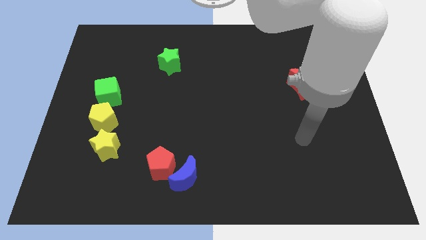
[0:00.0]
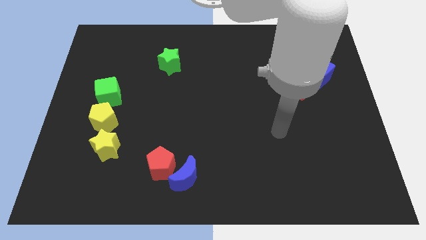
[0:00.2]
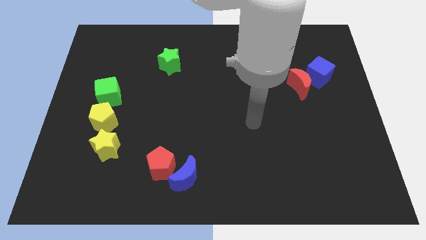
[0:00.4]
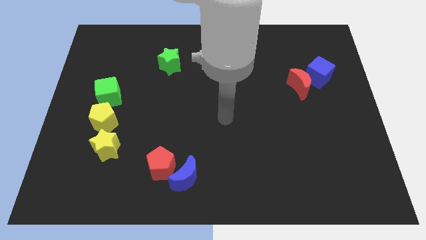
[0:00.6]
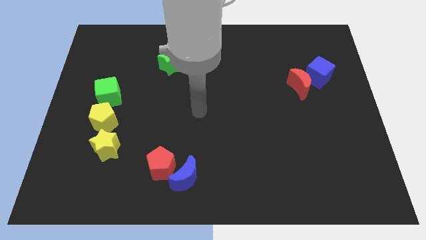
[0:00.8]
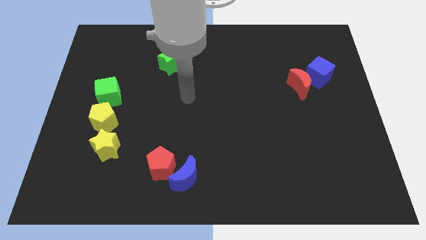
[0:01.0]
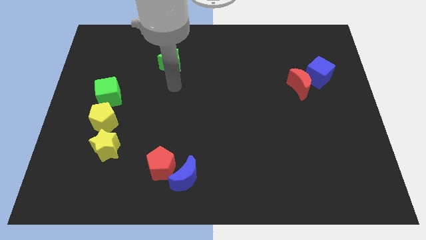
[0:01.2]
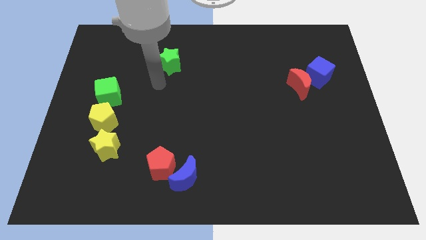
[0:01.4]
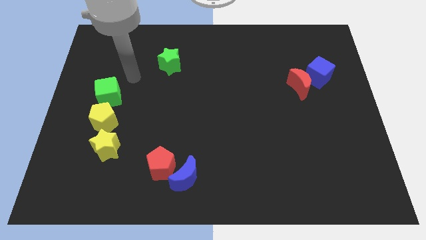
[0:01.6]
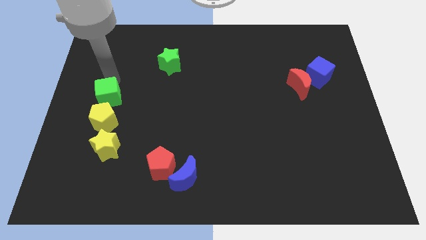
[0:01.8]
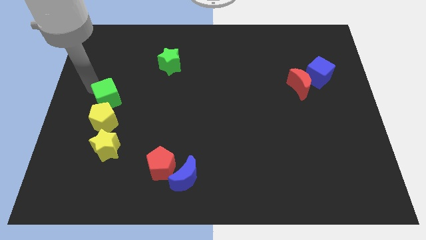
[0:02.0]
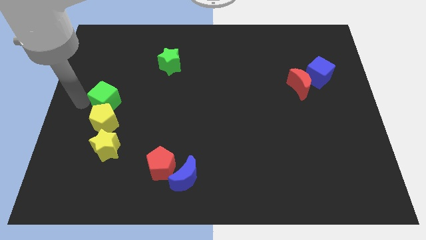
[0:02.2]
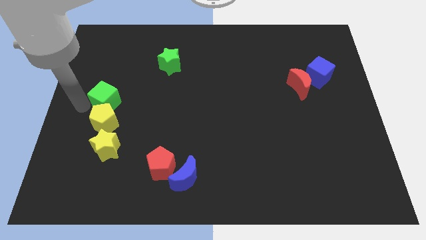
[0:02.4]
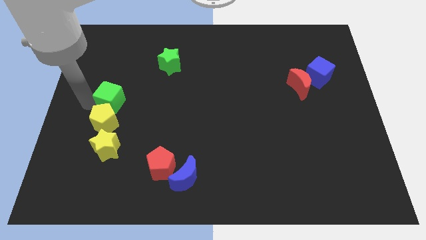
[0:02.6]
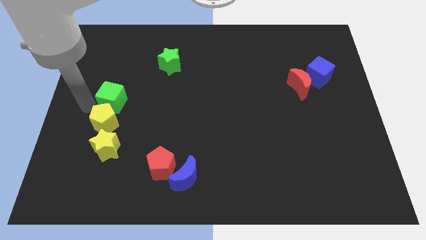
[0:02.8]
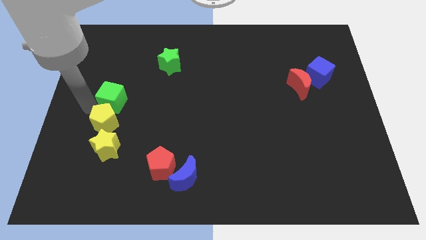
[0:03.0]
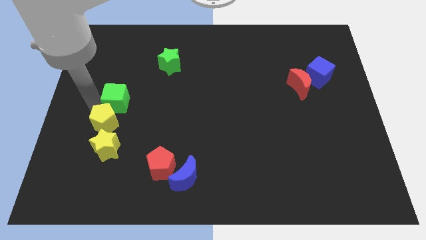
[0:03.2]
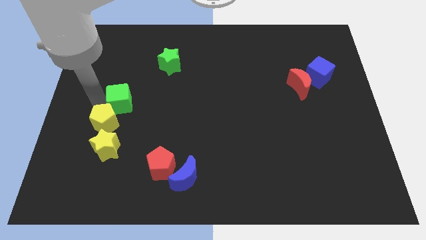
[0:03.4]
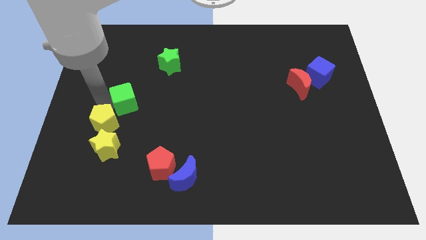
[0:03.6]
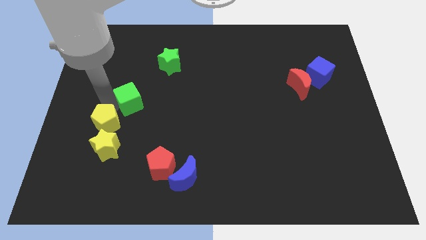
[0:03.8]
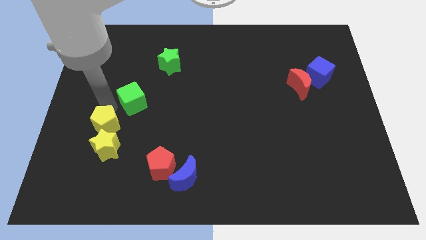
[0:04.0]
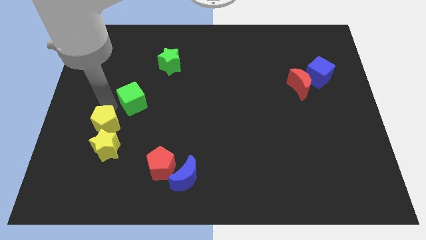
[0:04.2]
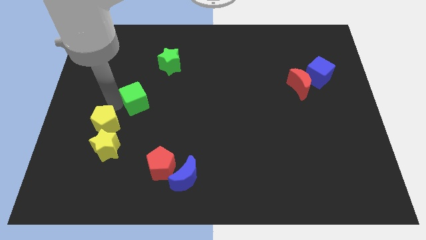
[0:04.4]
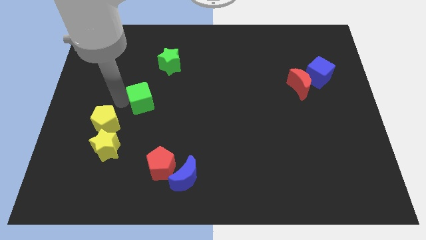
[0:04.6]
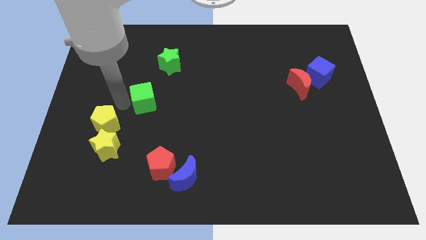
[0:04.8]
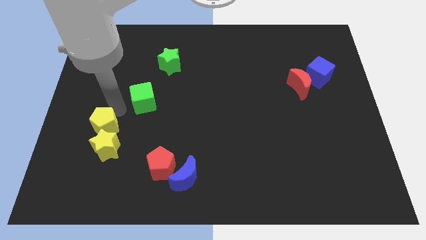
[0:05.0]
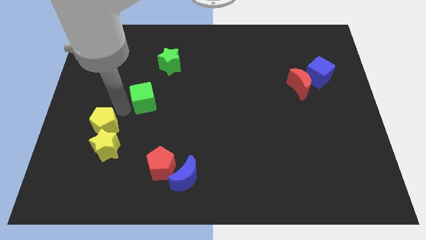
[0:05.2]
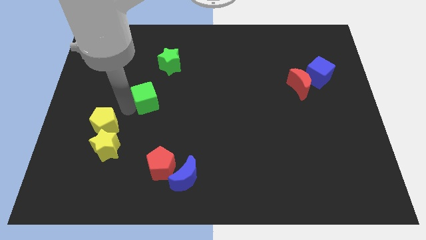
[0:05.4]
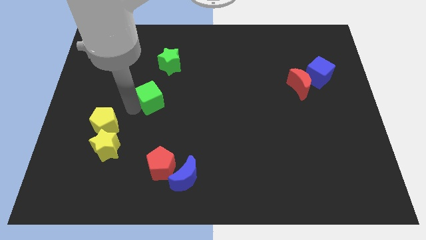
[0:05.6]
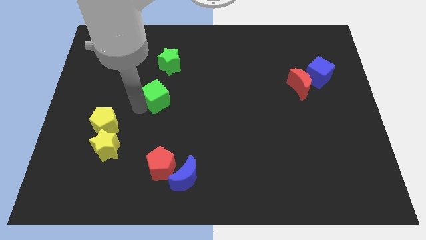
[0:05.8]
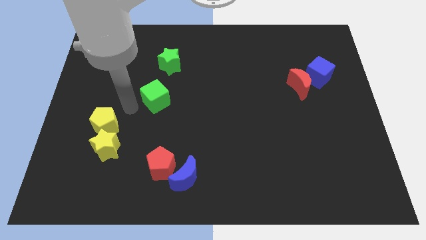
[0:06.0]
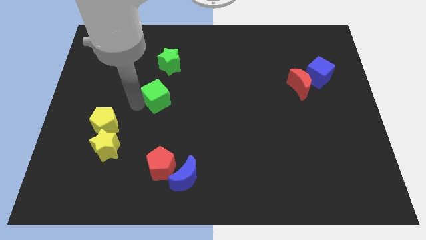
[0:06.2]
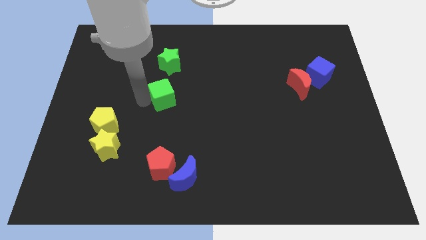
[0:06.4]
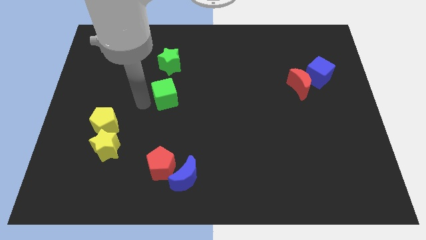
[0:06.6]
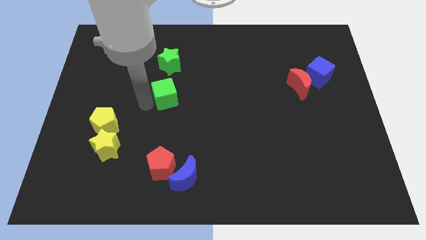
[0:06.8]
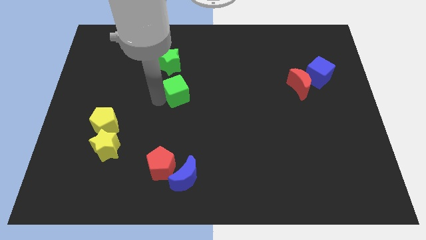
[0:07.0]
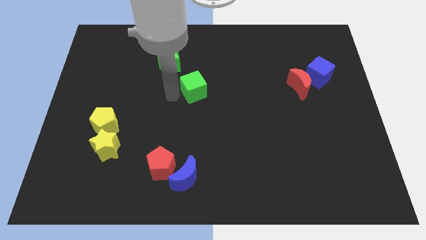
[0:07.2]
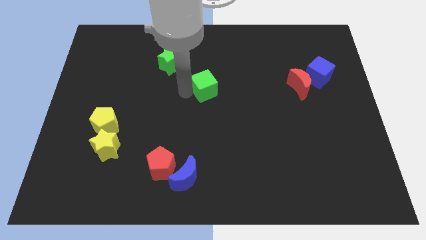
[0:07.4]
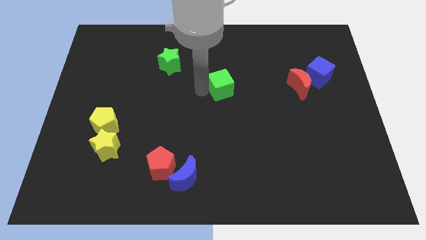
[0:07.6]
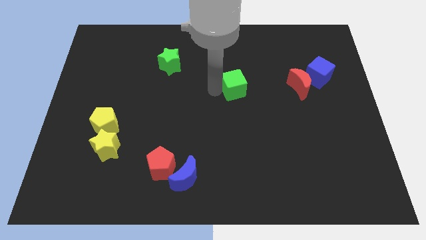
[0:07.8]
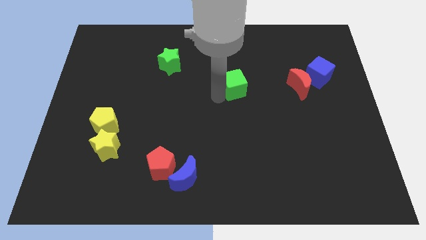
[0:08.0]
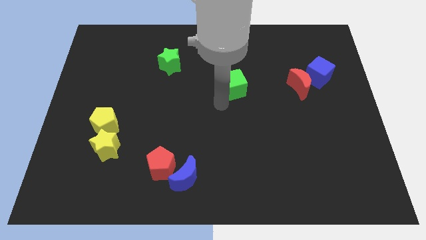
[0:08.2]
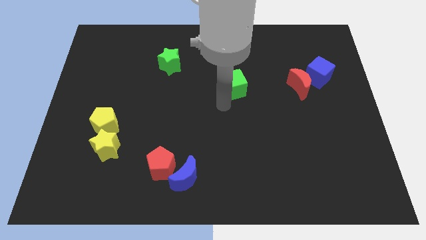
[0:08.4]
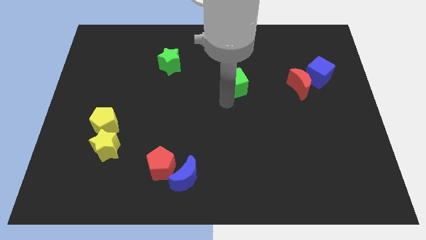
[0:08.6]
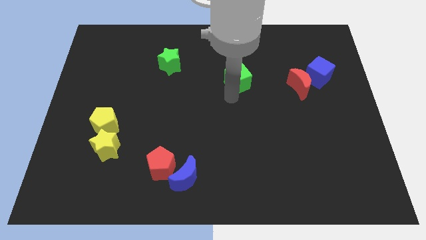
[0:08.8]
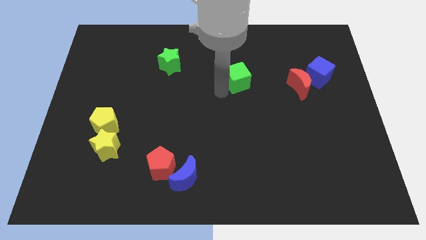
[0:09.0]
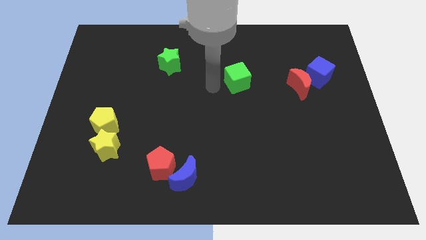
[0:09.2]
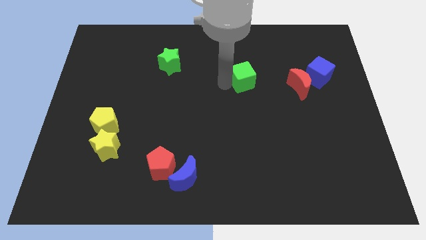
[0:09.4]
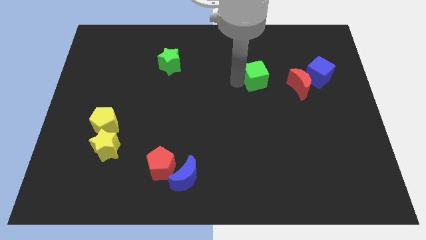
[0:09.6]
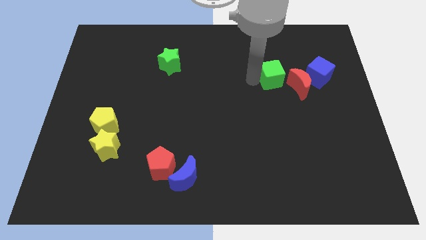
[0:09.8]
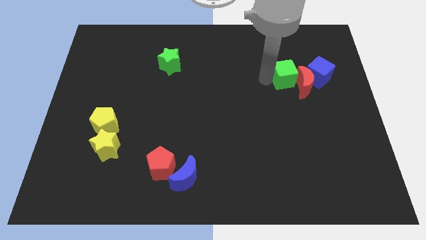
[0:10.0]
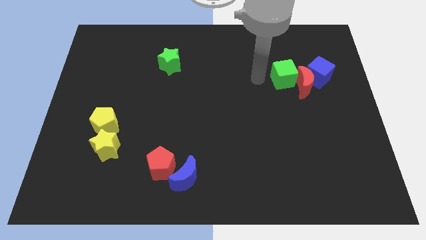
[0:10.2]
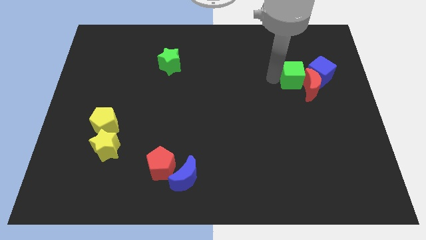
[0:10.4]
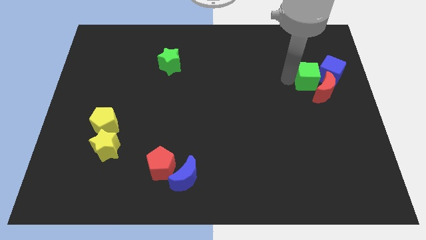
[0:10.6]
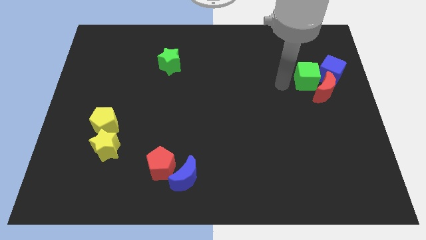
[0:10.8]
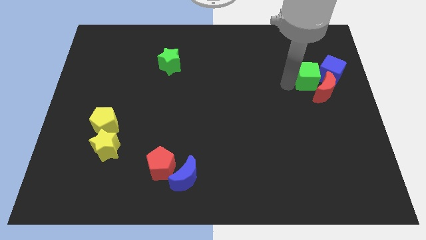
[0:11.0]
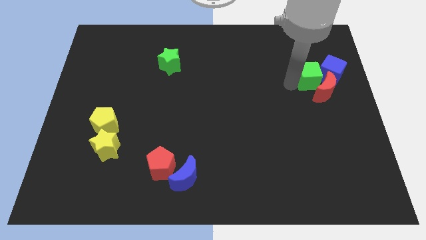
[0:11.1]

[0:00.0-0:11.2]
put the green cube towards the blue cube

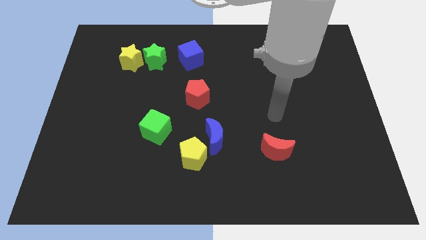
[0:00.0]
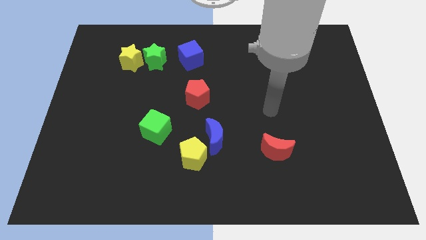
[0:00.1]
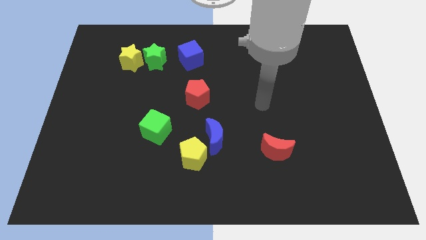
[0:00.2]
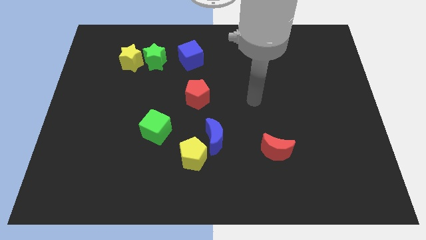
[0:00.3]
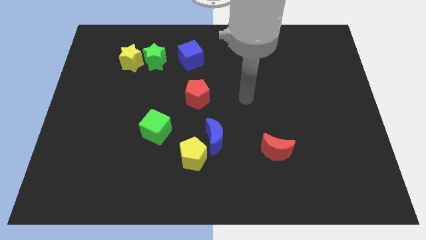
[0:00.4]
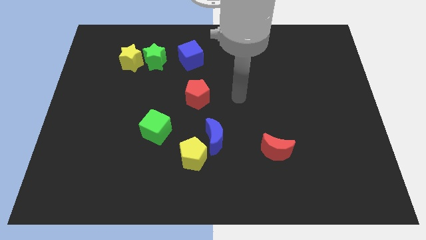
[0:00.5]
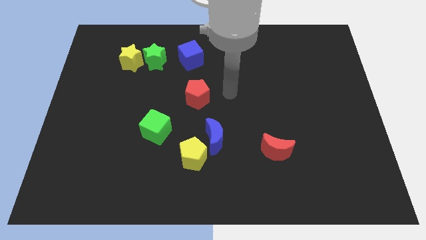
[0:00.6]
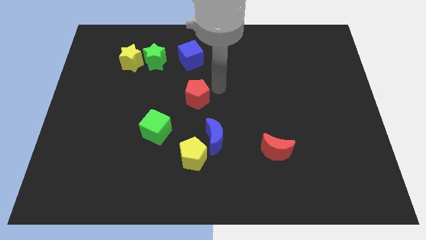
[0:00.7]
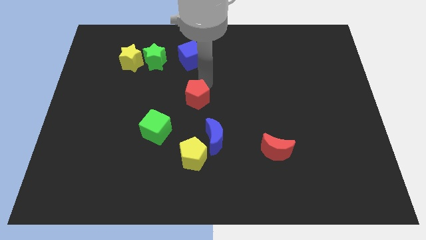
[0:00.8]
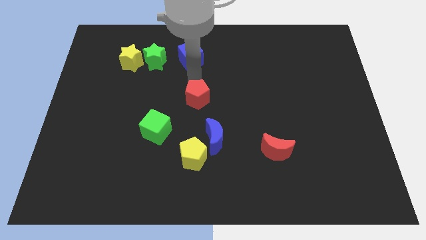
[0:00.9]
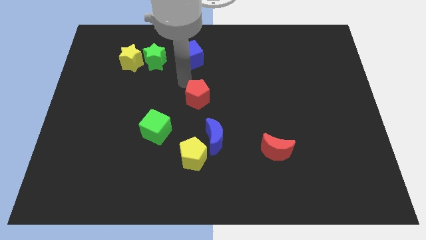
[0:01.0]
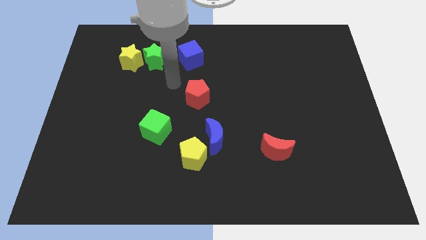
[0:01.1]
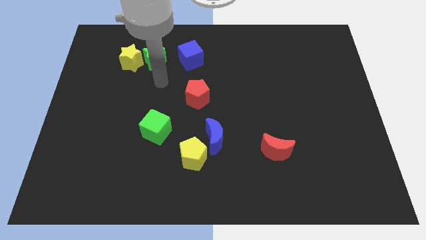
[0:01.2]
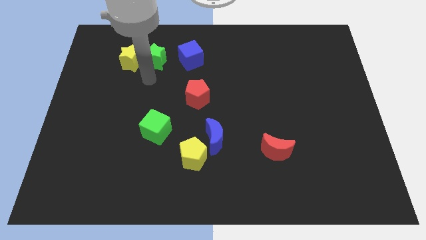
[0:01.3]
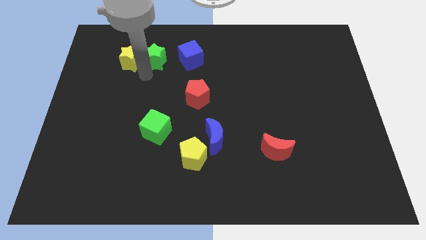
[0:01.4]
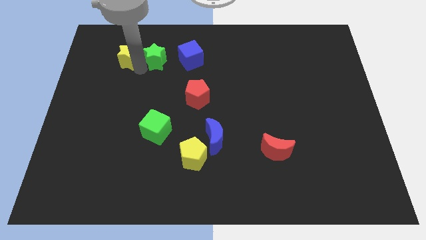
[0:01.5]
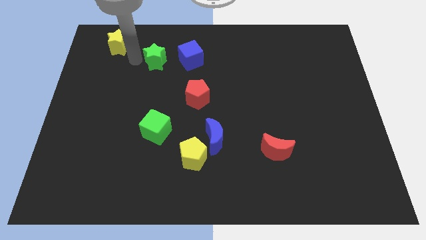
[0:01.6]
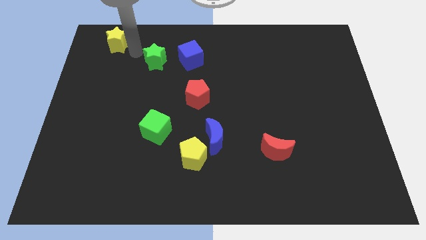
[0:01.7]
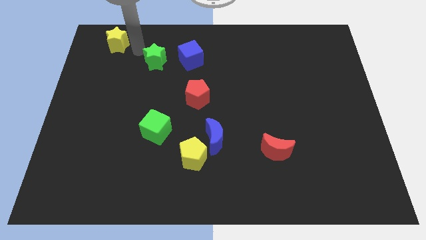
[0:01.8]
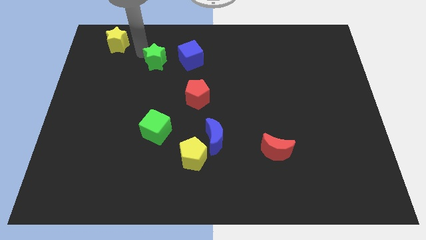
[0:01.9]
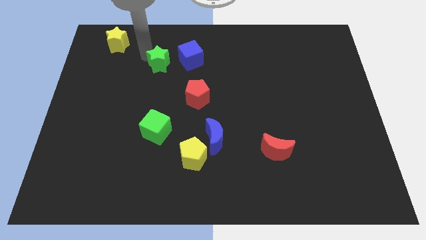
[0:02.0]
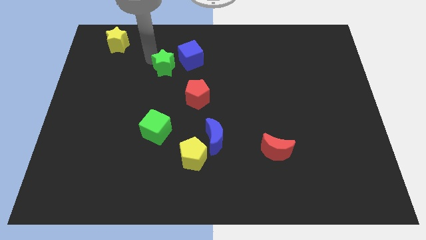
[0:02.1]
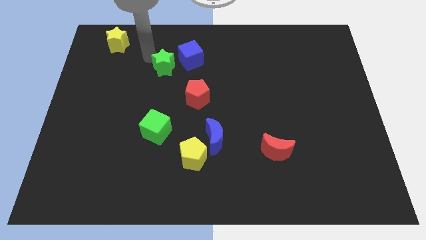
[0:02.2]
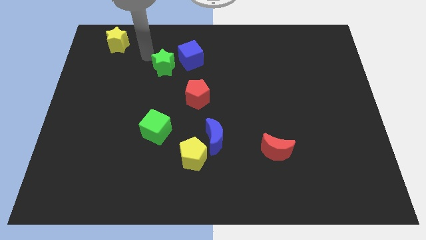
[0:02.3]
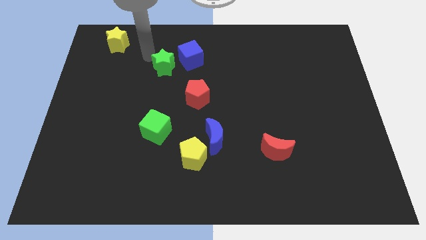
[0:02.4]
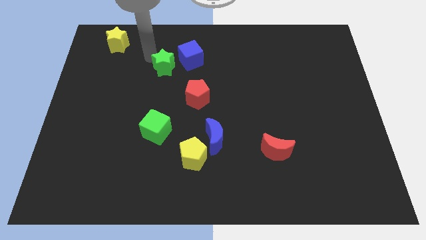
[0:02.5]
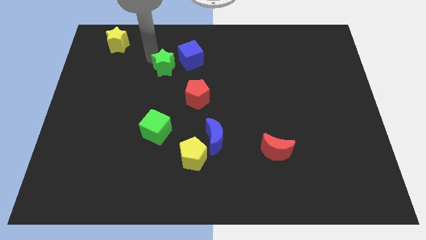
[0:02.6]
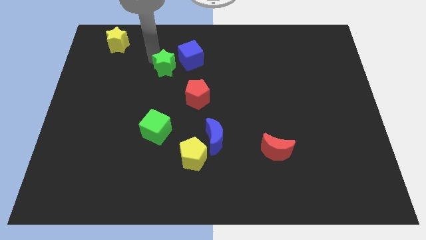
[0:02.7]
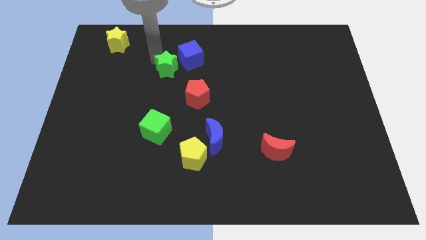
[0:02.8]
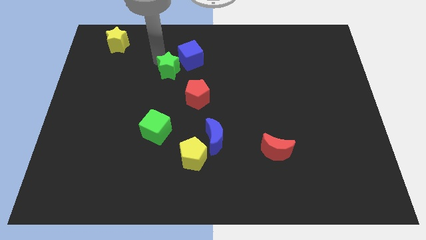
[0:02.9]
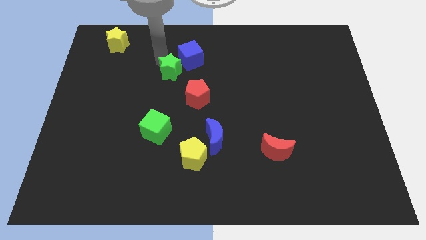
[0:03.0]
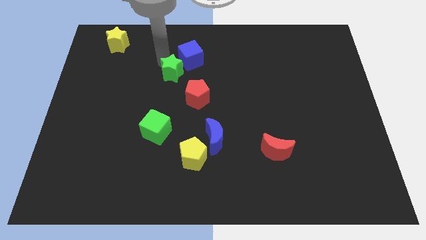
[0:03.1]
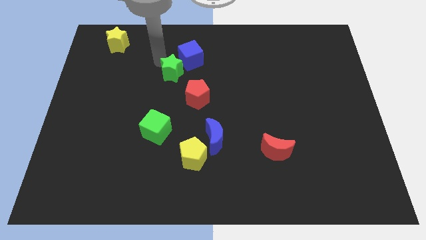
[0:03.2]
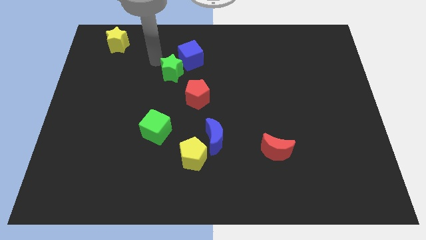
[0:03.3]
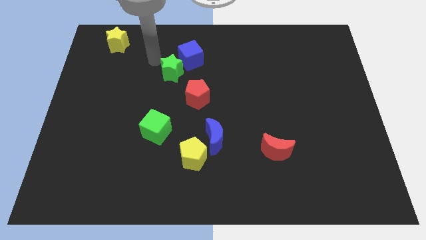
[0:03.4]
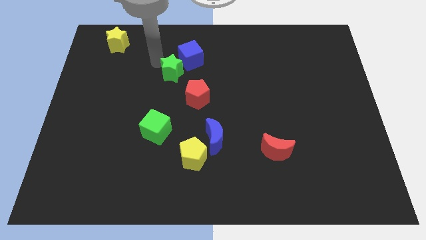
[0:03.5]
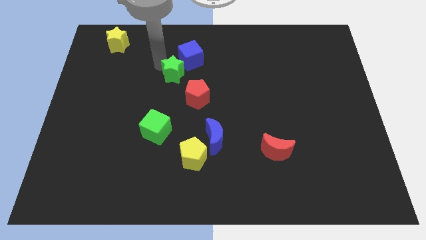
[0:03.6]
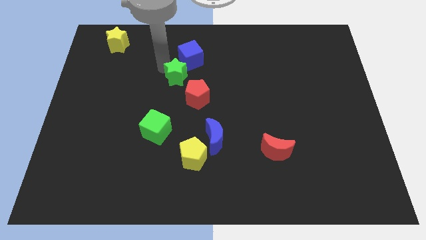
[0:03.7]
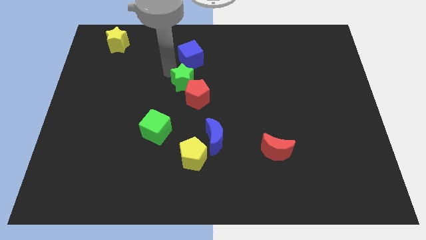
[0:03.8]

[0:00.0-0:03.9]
put the green star to the red pentagon
